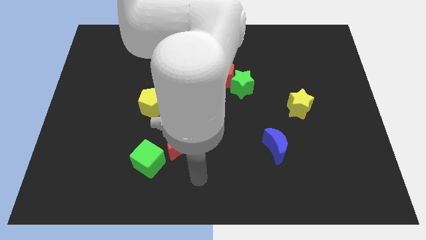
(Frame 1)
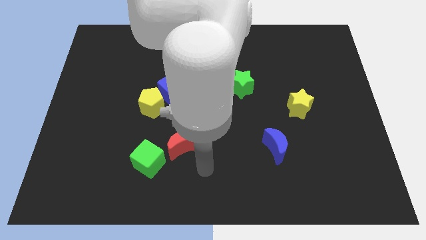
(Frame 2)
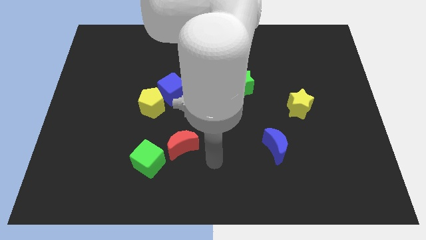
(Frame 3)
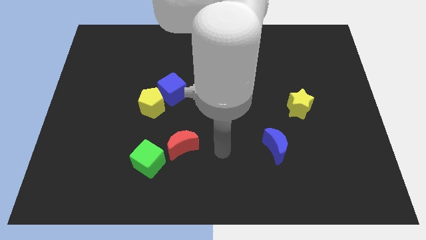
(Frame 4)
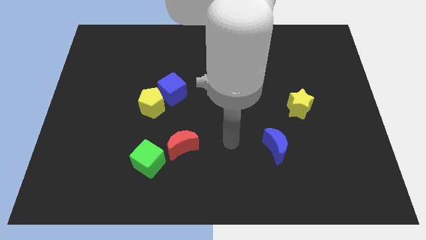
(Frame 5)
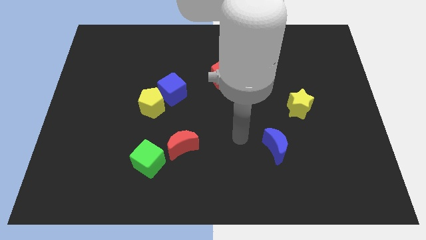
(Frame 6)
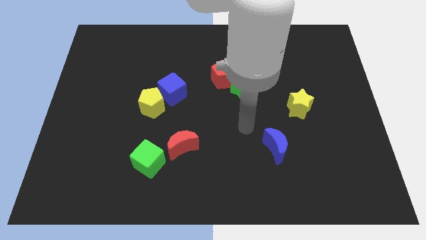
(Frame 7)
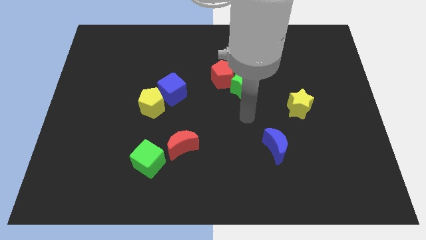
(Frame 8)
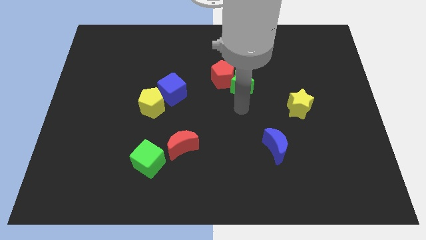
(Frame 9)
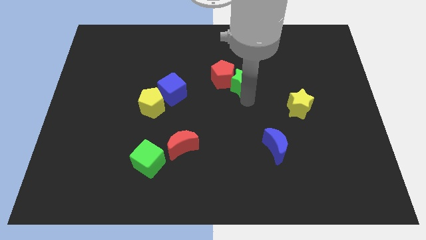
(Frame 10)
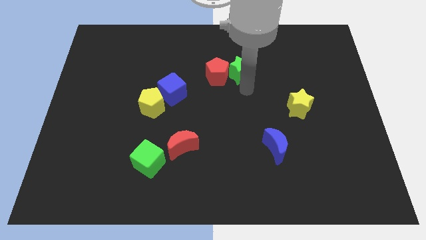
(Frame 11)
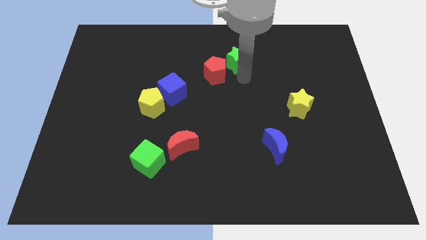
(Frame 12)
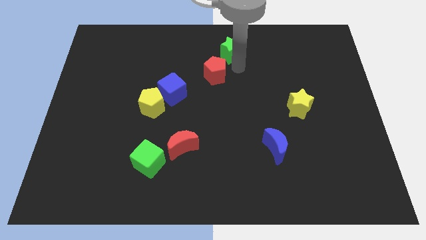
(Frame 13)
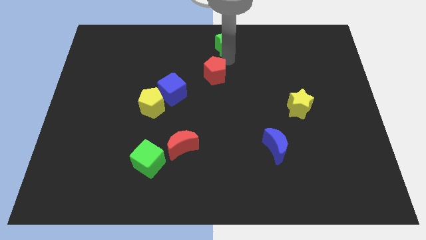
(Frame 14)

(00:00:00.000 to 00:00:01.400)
pull the red pentagon apart from the green star

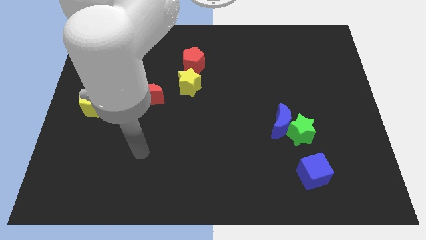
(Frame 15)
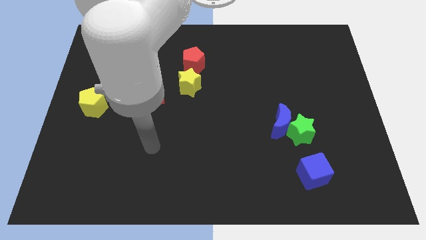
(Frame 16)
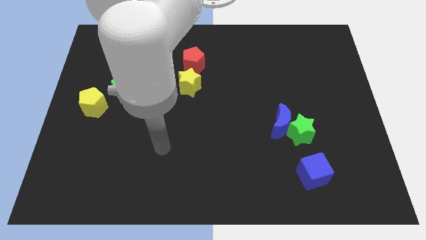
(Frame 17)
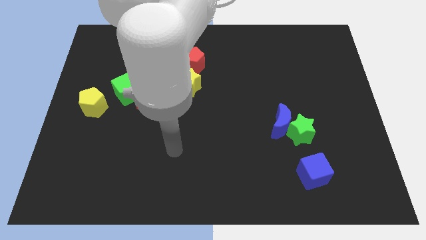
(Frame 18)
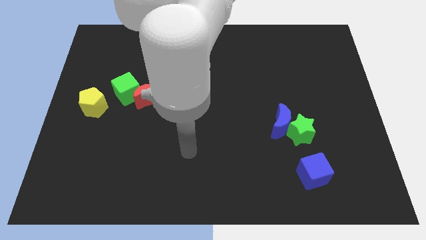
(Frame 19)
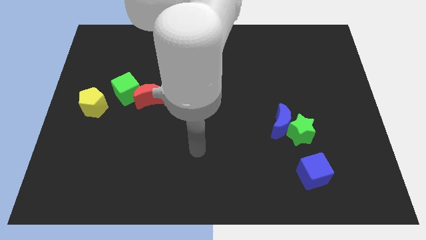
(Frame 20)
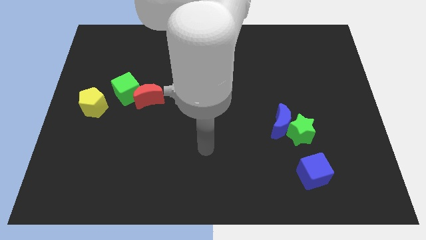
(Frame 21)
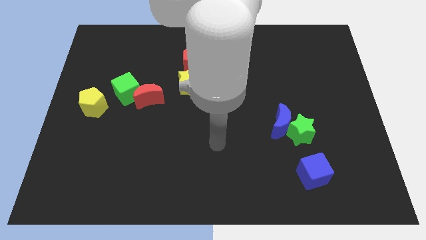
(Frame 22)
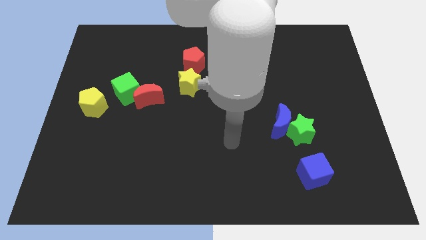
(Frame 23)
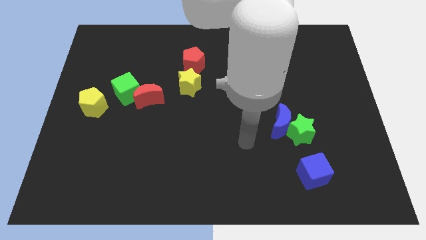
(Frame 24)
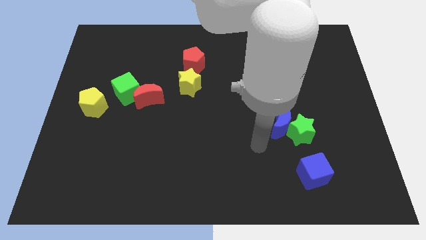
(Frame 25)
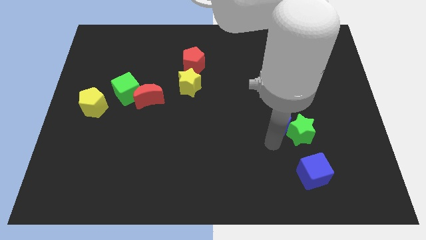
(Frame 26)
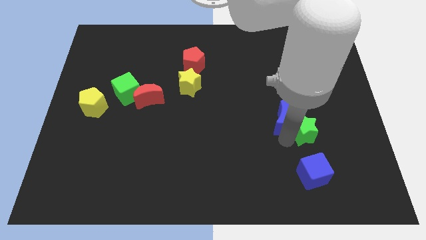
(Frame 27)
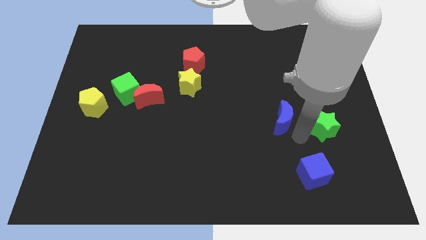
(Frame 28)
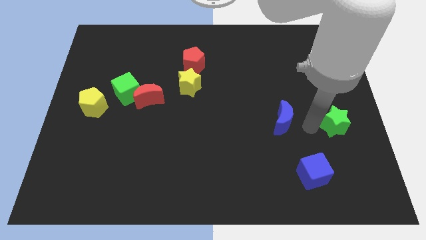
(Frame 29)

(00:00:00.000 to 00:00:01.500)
pull the blue moon apart from the green star

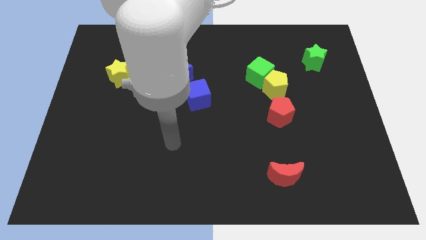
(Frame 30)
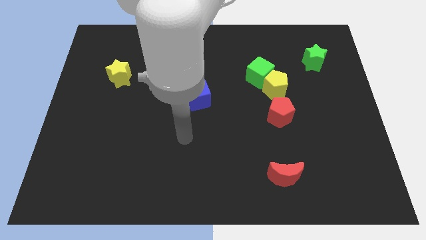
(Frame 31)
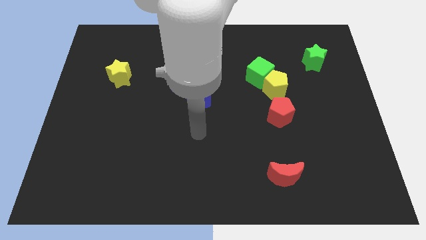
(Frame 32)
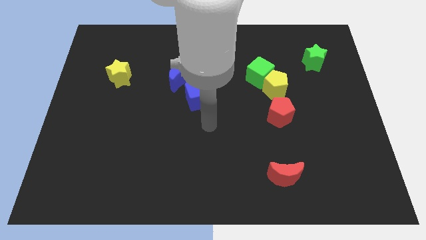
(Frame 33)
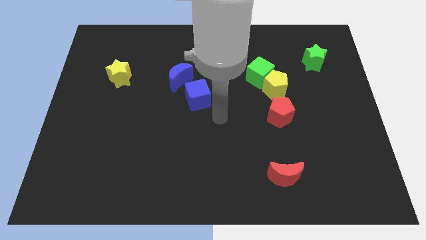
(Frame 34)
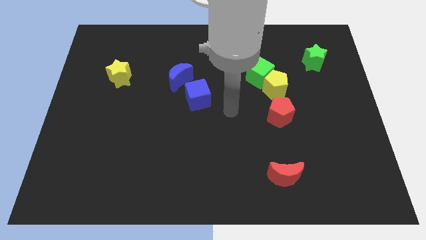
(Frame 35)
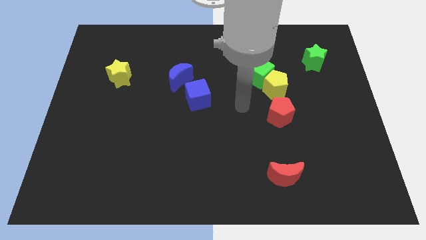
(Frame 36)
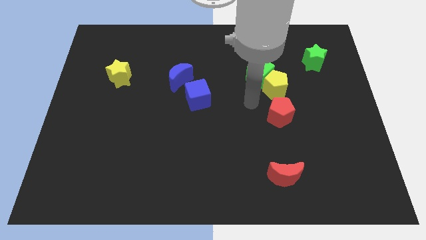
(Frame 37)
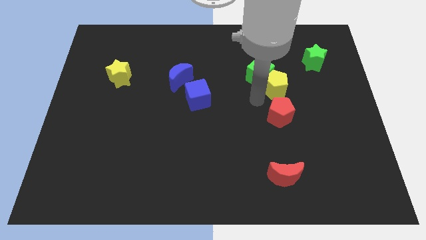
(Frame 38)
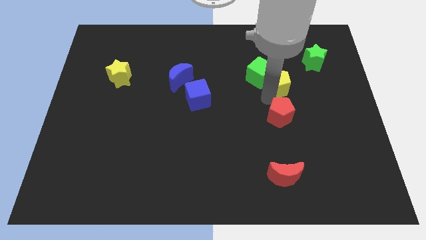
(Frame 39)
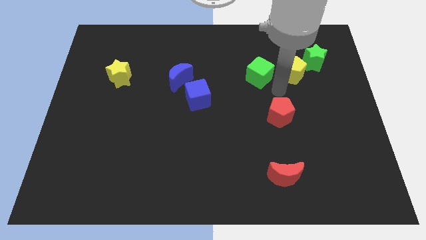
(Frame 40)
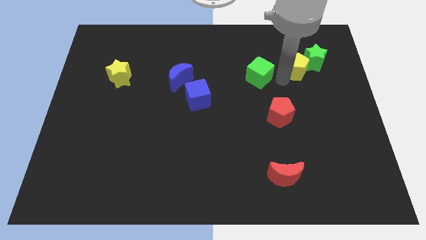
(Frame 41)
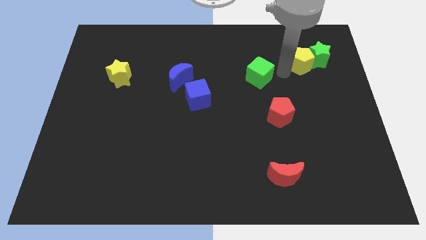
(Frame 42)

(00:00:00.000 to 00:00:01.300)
move the green cube away from the yellow pentagon

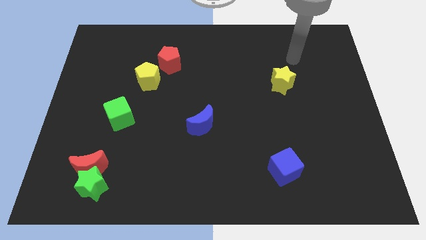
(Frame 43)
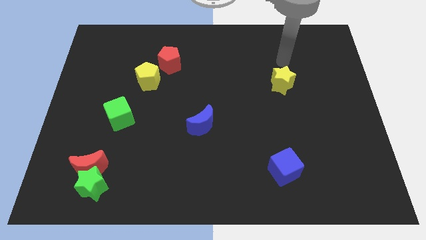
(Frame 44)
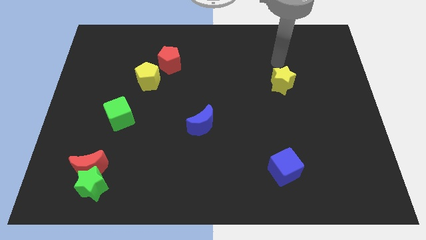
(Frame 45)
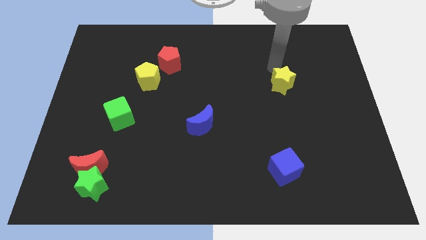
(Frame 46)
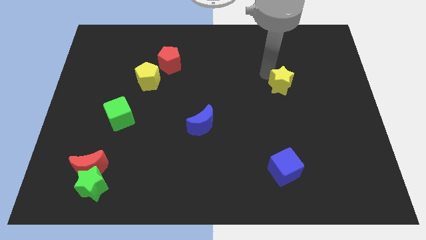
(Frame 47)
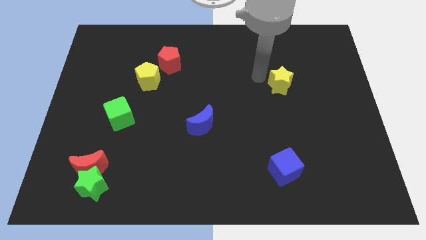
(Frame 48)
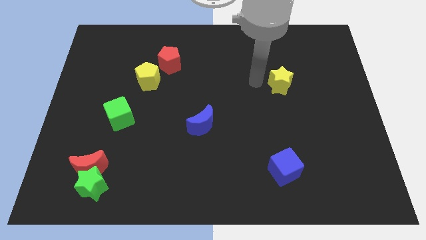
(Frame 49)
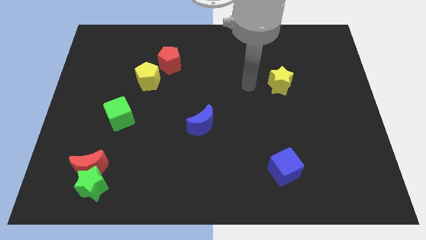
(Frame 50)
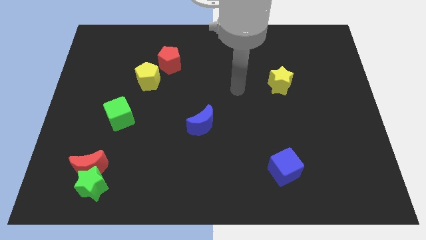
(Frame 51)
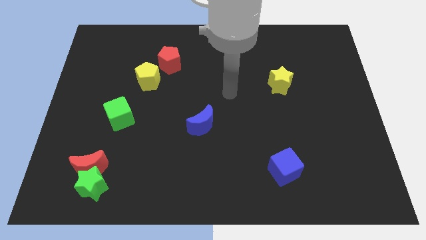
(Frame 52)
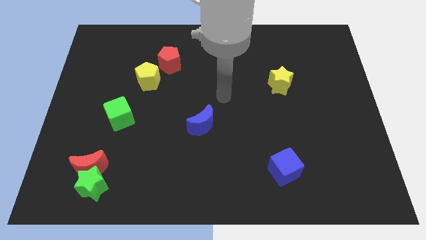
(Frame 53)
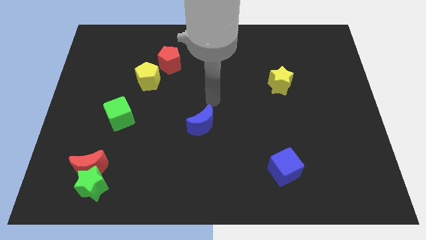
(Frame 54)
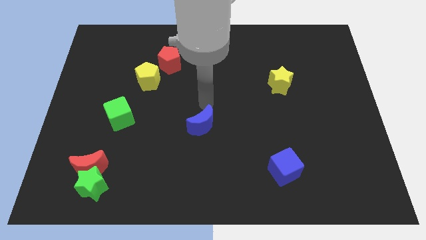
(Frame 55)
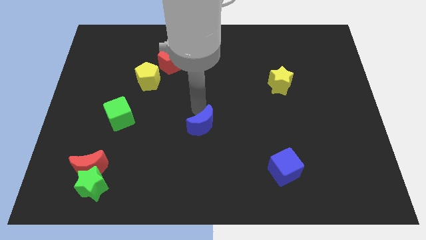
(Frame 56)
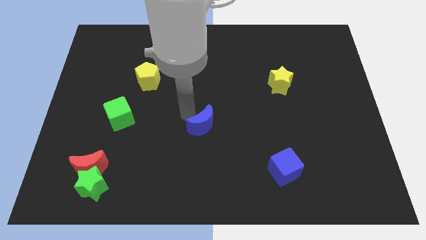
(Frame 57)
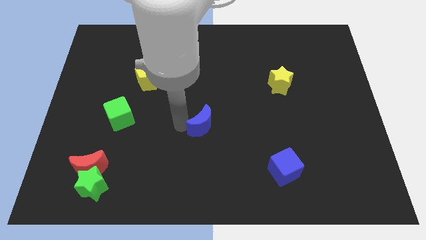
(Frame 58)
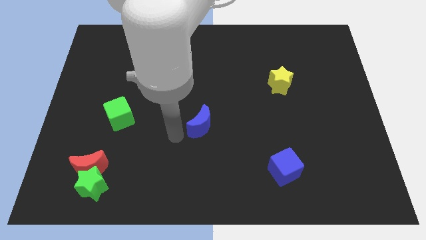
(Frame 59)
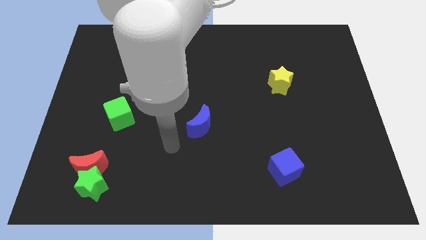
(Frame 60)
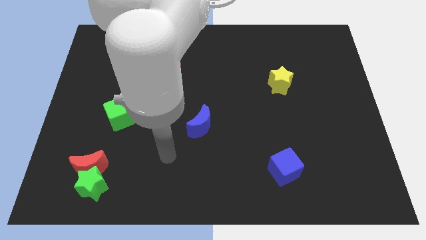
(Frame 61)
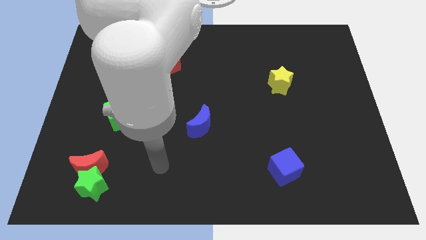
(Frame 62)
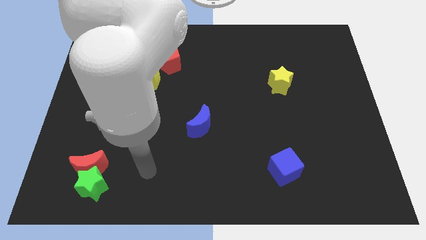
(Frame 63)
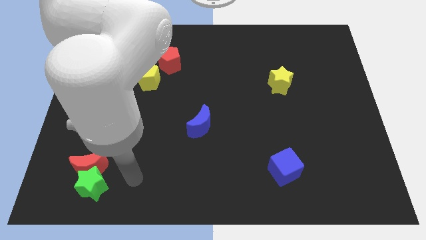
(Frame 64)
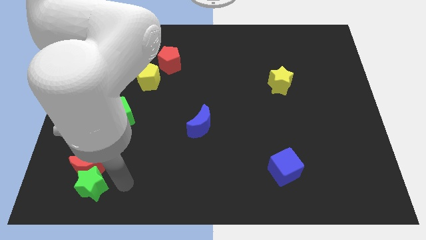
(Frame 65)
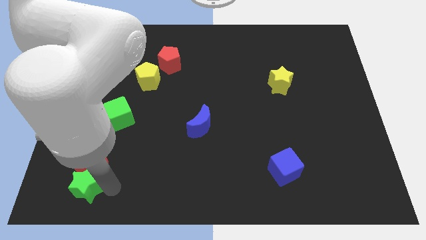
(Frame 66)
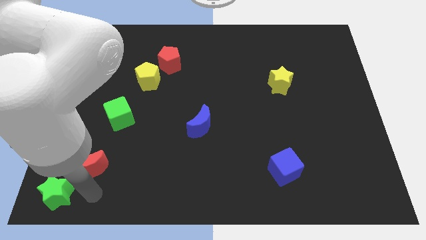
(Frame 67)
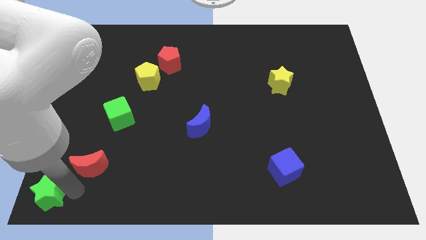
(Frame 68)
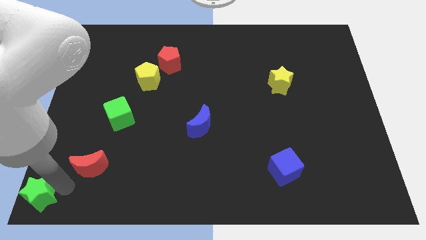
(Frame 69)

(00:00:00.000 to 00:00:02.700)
separate the red moon from the green star

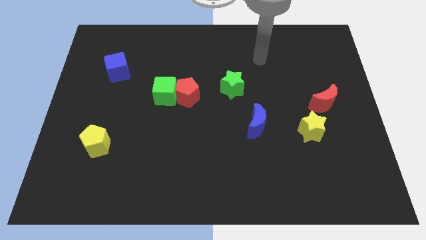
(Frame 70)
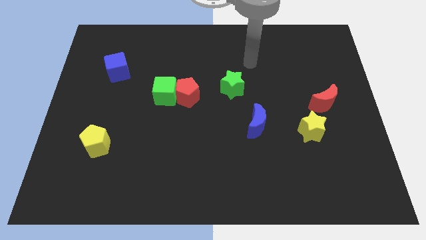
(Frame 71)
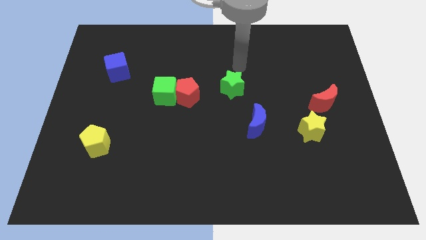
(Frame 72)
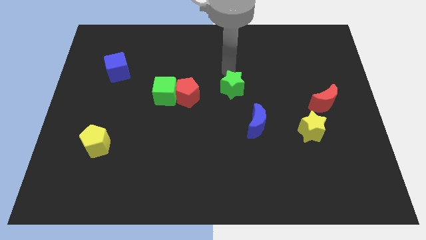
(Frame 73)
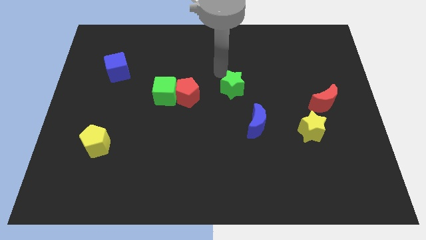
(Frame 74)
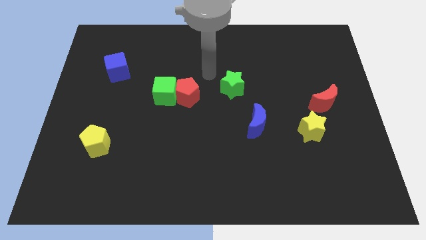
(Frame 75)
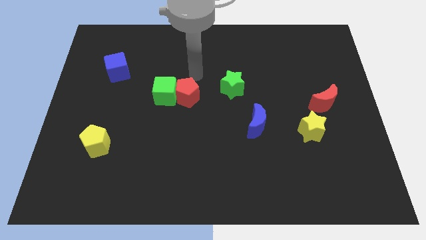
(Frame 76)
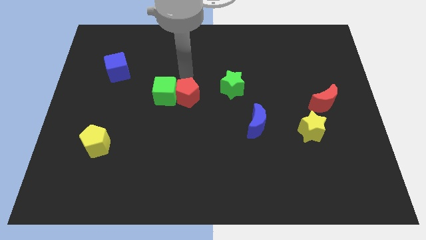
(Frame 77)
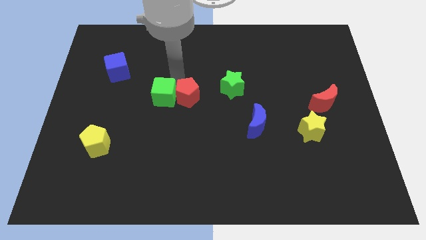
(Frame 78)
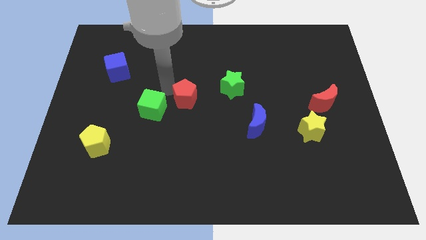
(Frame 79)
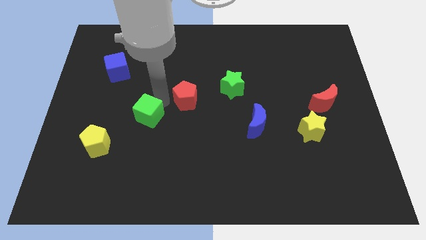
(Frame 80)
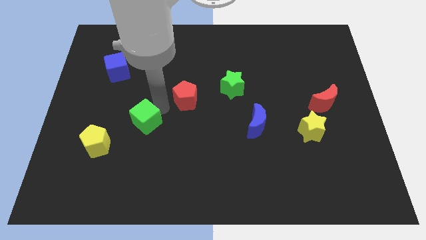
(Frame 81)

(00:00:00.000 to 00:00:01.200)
pull the red pentagon apart from the green cube

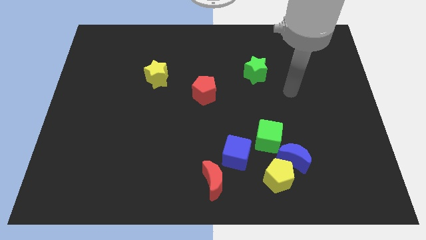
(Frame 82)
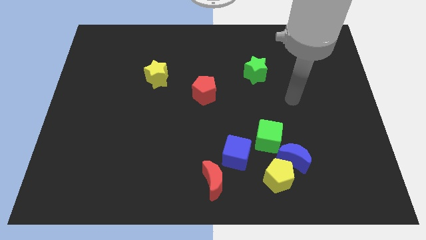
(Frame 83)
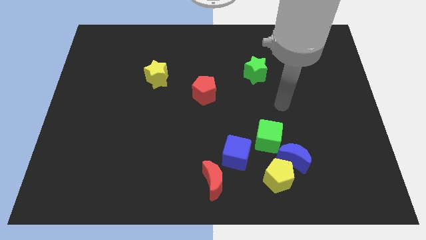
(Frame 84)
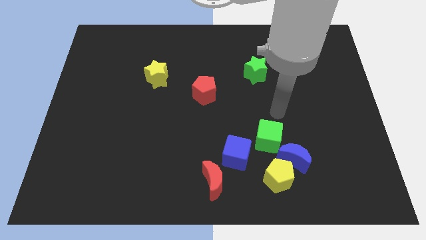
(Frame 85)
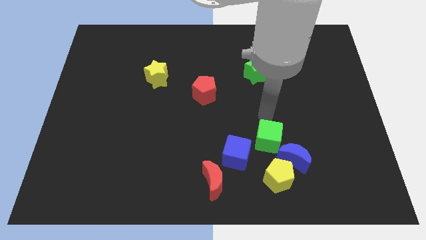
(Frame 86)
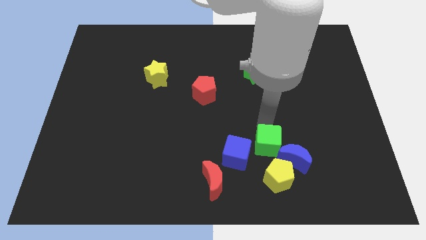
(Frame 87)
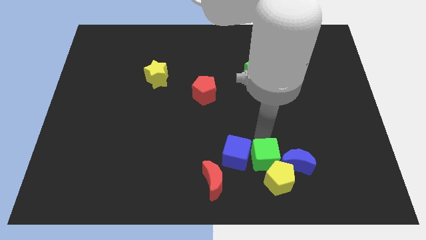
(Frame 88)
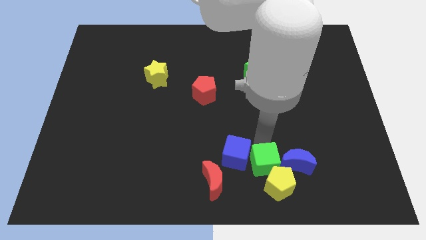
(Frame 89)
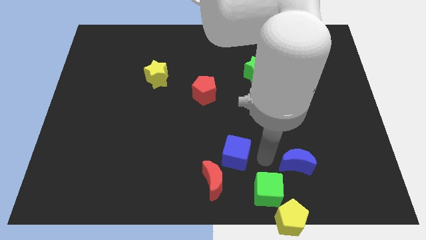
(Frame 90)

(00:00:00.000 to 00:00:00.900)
move the blue moon away from the yellow pentagon and green cube

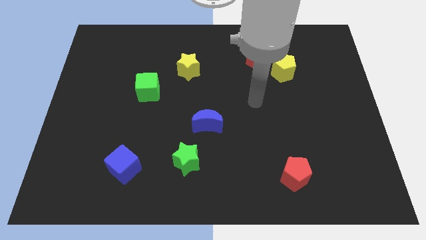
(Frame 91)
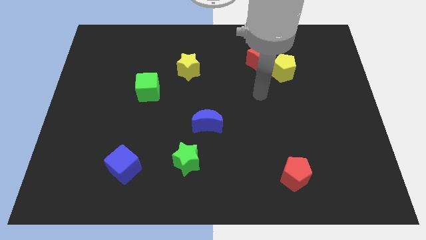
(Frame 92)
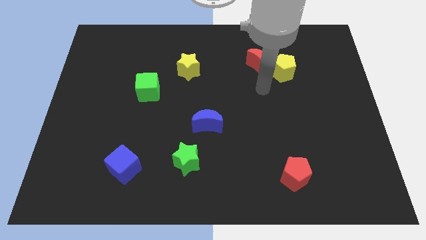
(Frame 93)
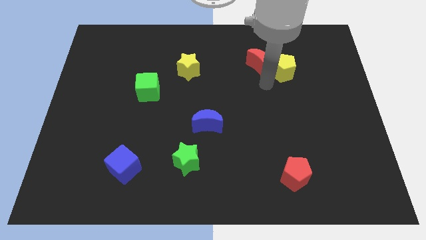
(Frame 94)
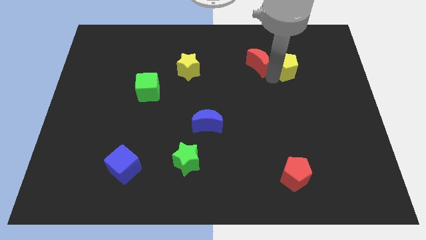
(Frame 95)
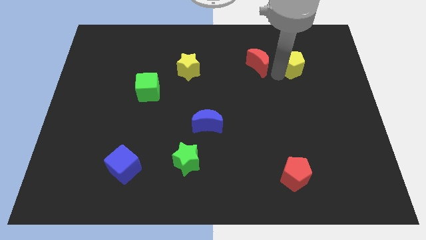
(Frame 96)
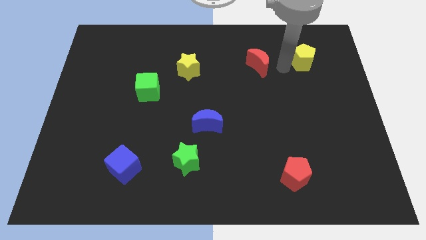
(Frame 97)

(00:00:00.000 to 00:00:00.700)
separate the red moon from the yellow pentagon
